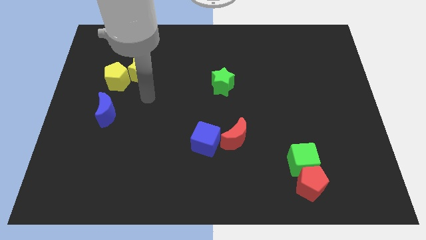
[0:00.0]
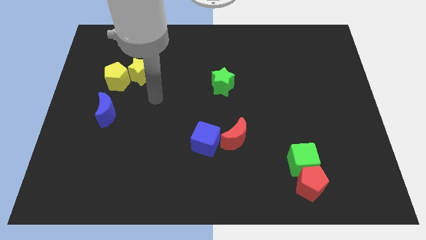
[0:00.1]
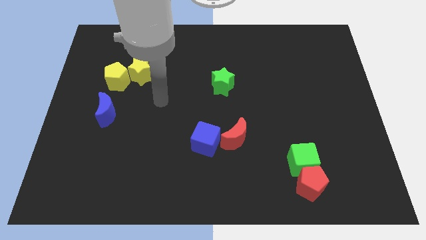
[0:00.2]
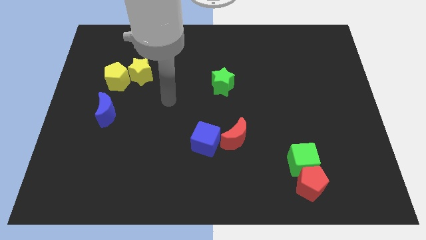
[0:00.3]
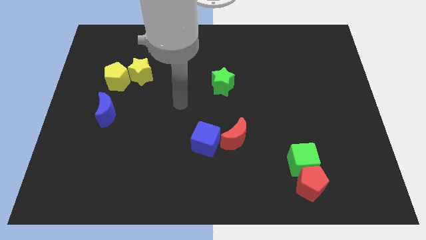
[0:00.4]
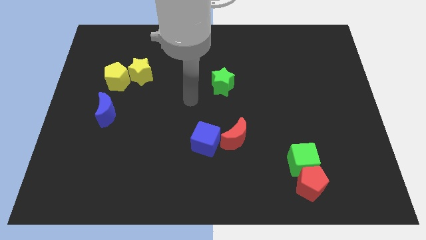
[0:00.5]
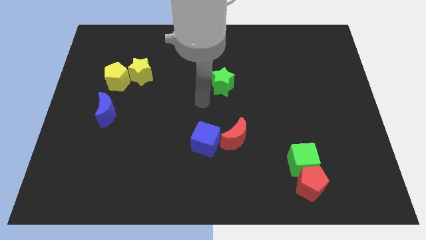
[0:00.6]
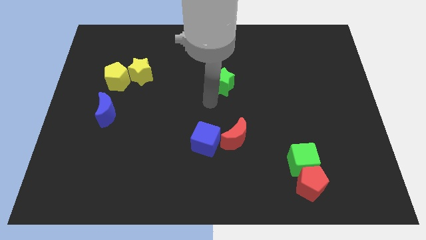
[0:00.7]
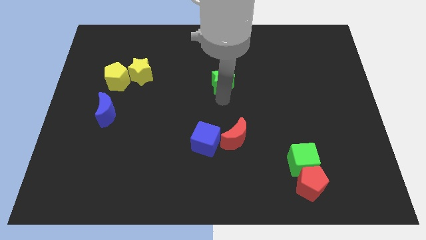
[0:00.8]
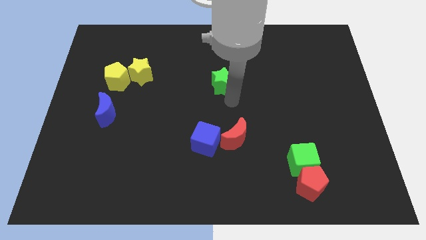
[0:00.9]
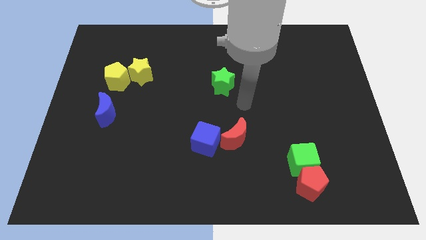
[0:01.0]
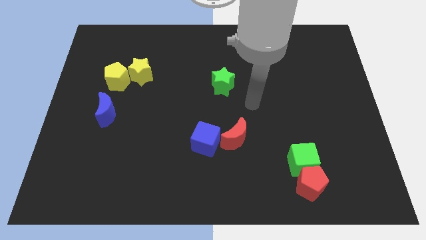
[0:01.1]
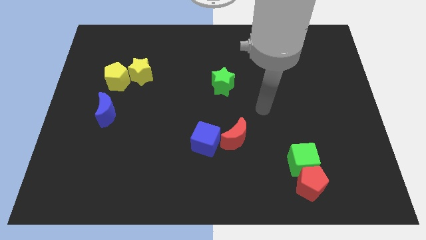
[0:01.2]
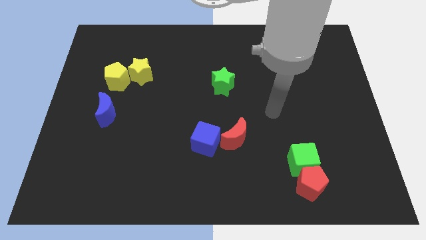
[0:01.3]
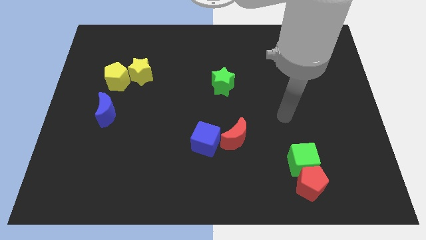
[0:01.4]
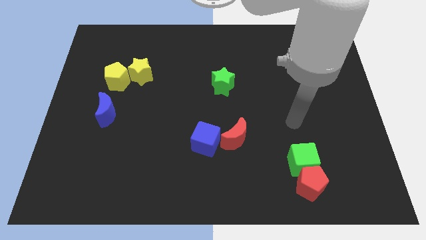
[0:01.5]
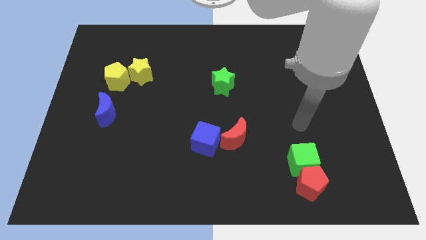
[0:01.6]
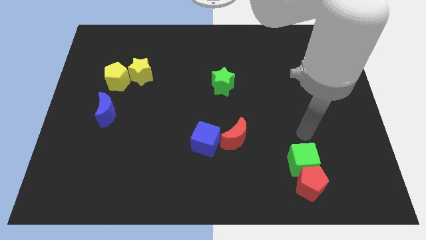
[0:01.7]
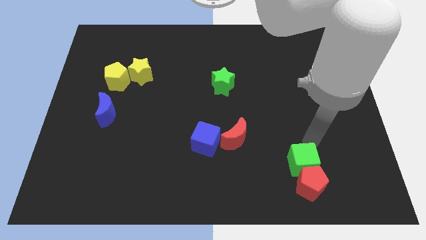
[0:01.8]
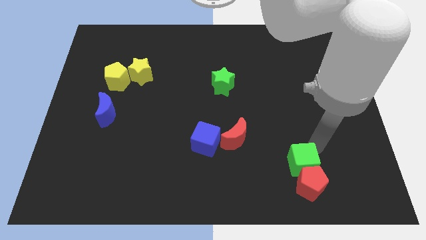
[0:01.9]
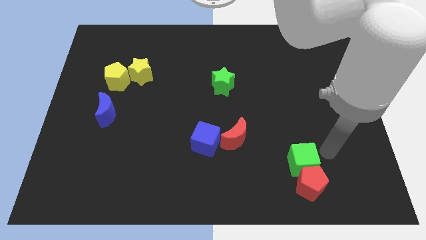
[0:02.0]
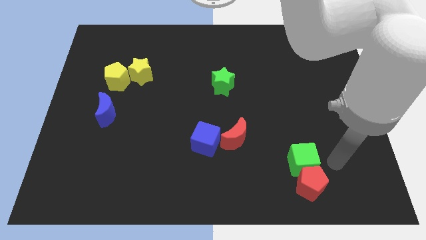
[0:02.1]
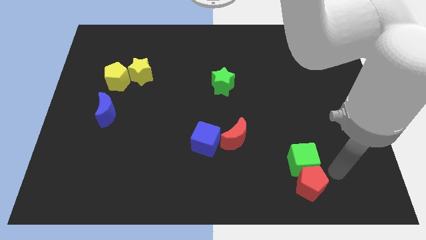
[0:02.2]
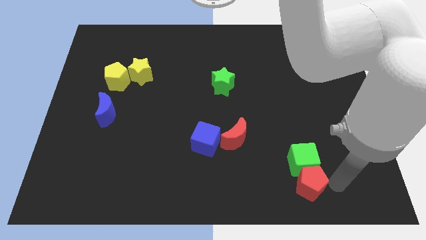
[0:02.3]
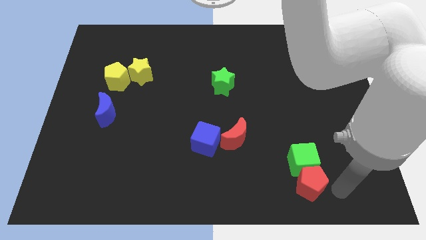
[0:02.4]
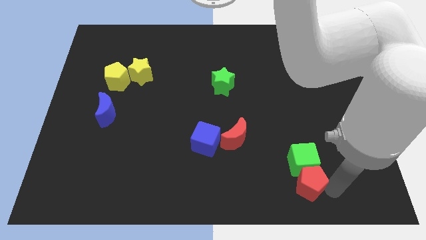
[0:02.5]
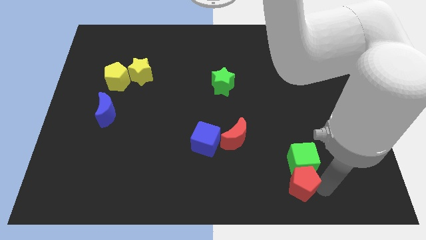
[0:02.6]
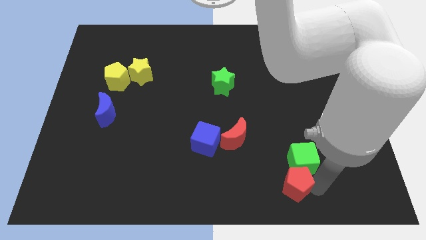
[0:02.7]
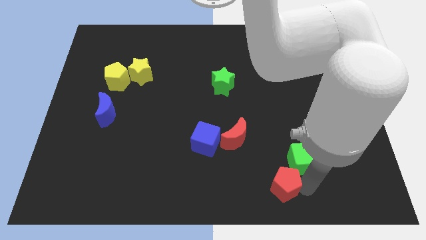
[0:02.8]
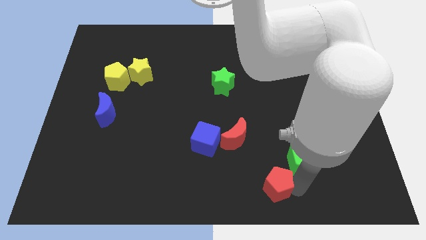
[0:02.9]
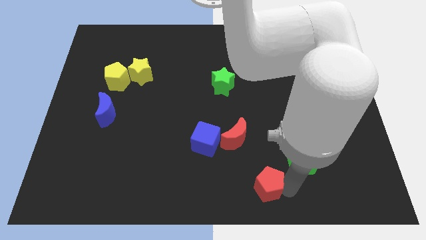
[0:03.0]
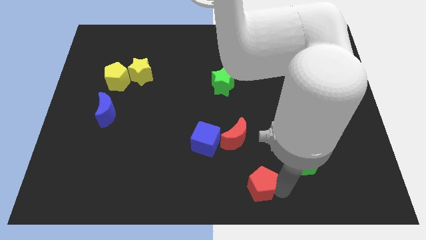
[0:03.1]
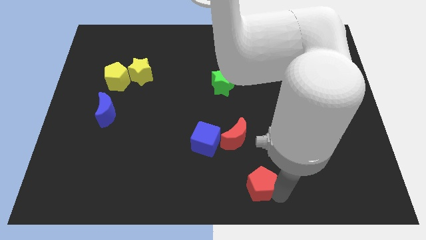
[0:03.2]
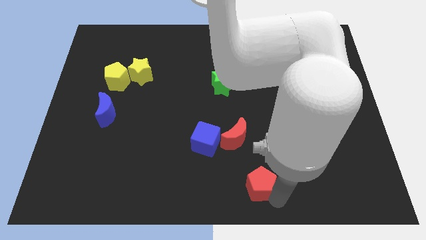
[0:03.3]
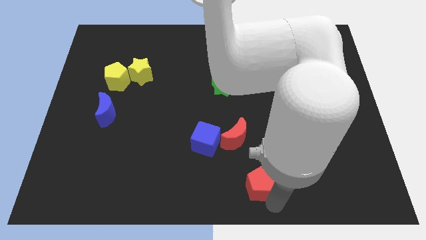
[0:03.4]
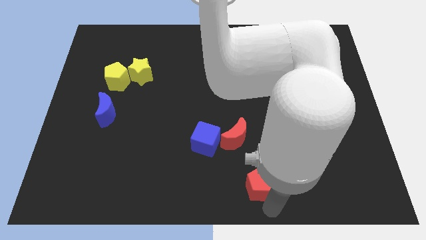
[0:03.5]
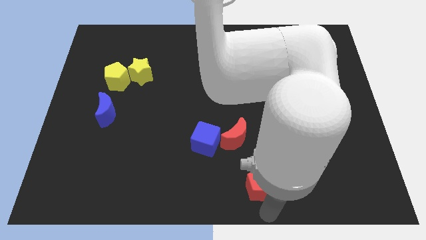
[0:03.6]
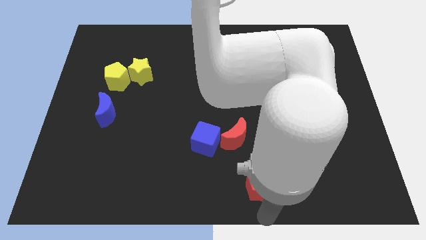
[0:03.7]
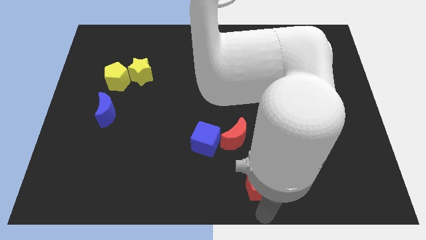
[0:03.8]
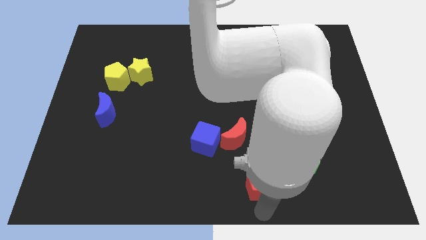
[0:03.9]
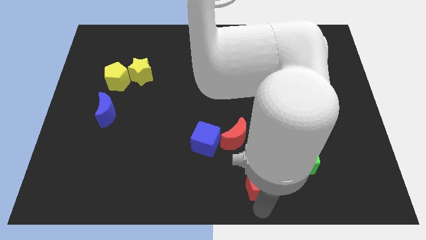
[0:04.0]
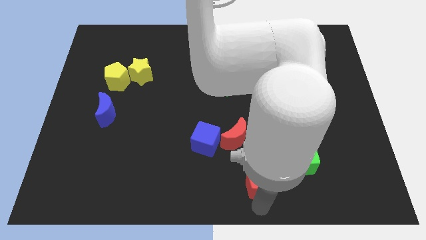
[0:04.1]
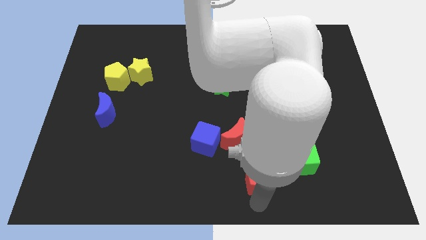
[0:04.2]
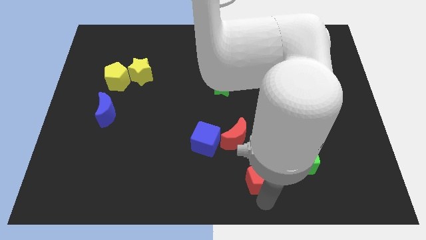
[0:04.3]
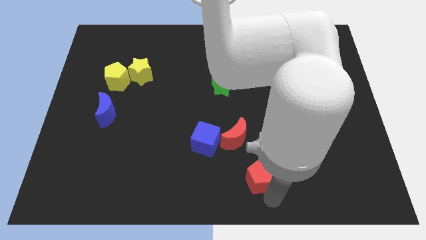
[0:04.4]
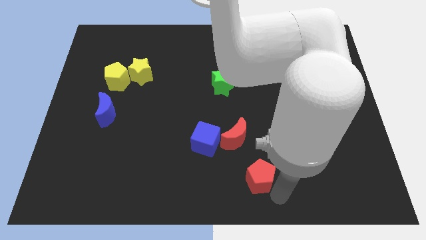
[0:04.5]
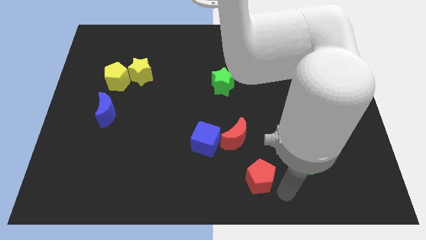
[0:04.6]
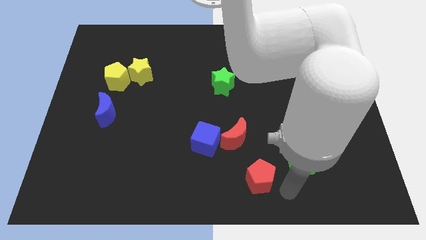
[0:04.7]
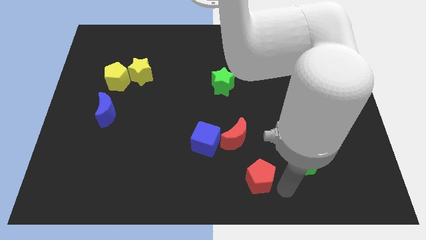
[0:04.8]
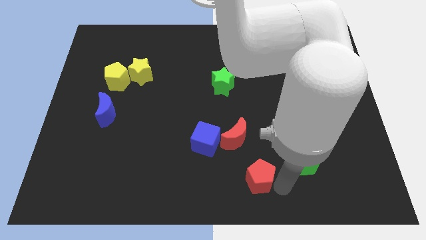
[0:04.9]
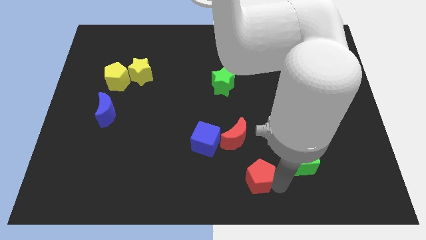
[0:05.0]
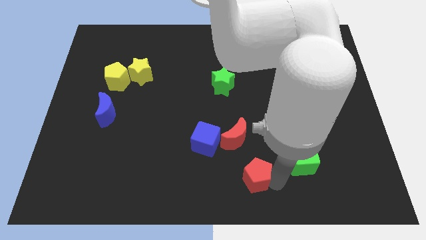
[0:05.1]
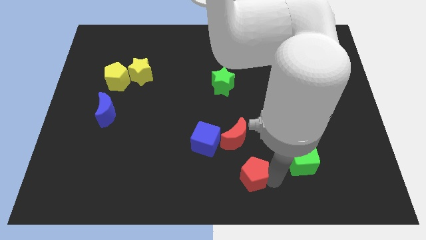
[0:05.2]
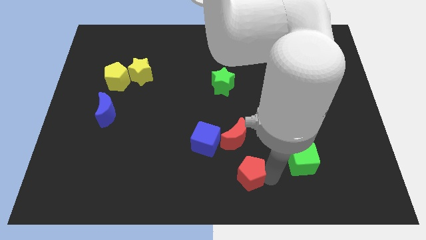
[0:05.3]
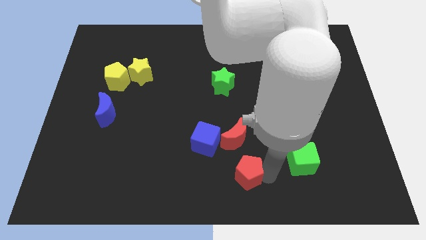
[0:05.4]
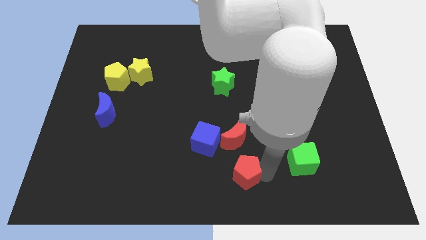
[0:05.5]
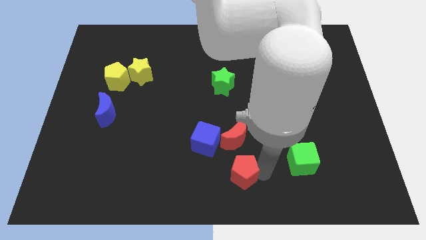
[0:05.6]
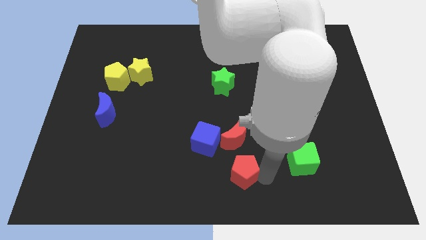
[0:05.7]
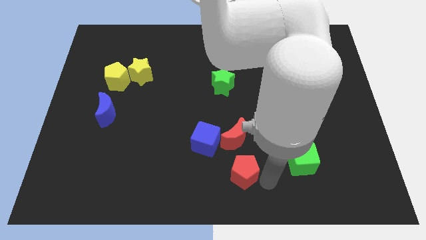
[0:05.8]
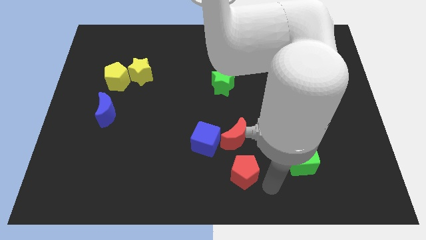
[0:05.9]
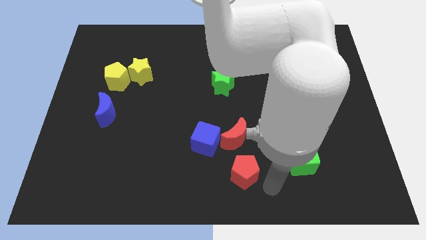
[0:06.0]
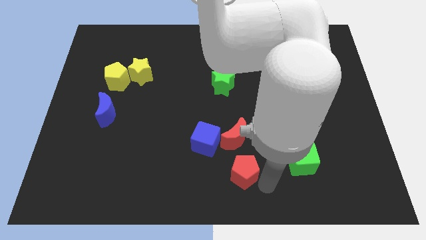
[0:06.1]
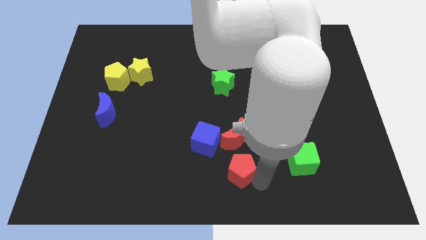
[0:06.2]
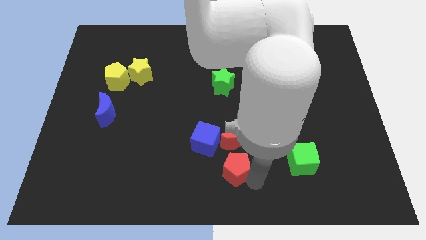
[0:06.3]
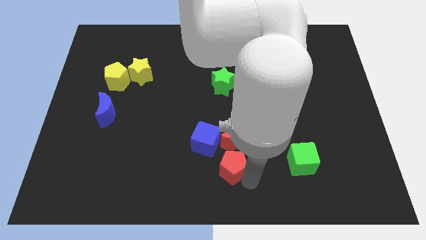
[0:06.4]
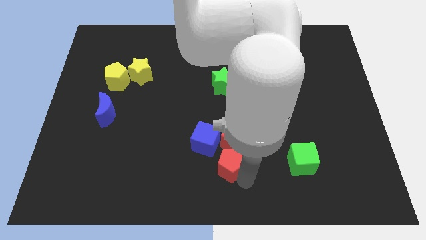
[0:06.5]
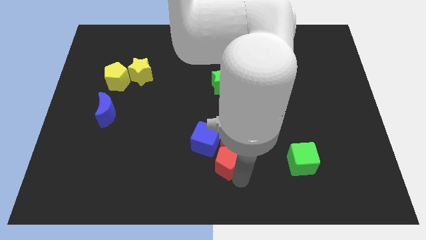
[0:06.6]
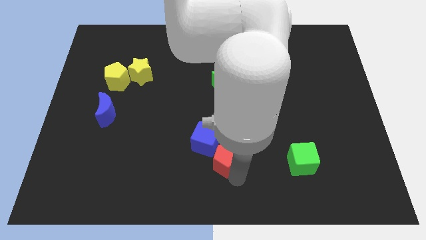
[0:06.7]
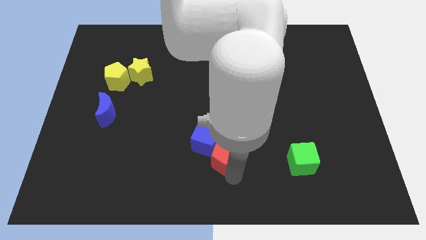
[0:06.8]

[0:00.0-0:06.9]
move the red pentagon next to the blue cube
